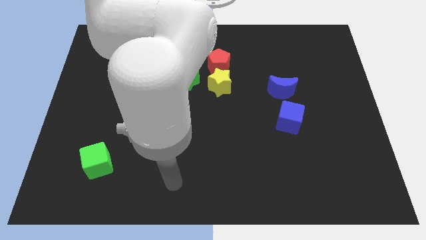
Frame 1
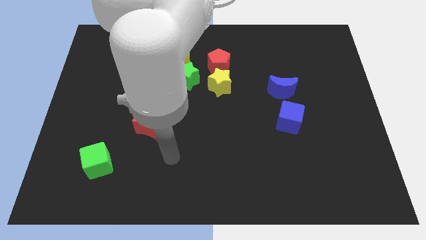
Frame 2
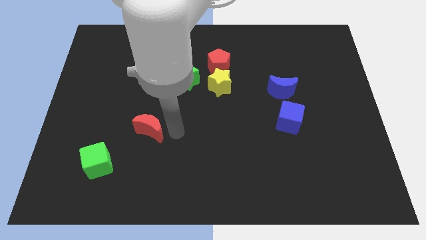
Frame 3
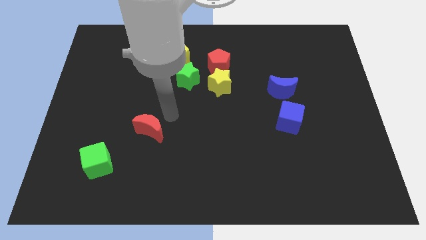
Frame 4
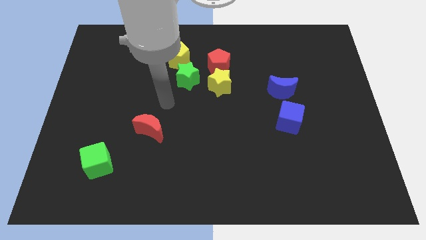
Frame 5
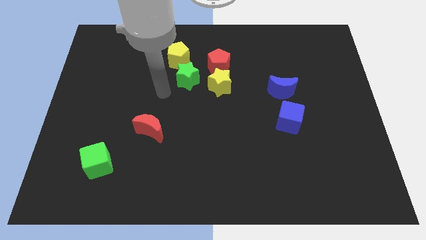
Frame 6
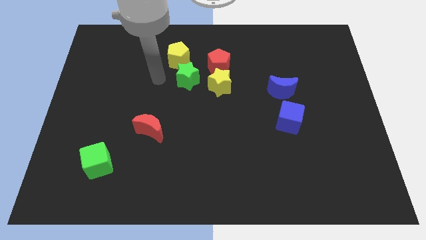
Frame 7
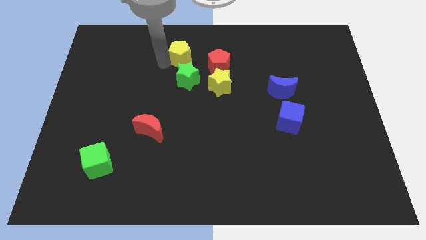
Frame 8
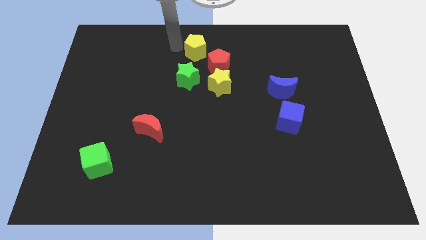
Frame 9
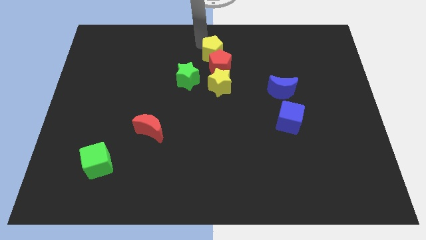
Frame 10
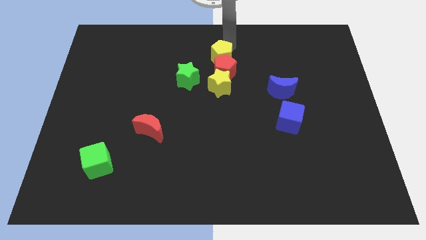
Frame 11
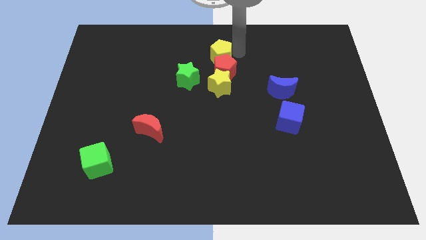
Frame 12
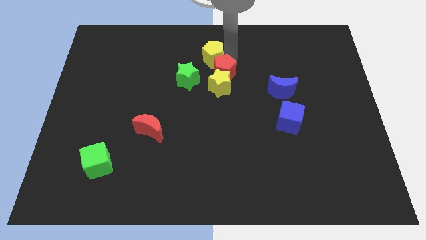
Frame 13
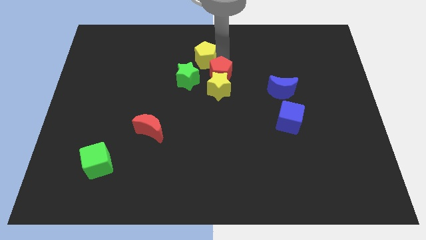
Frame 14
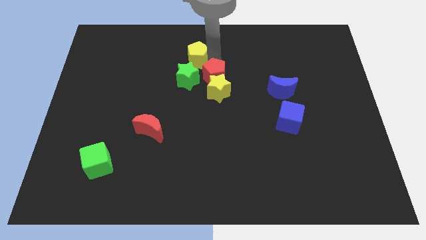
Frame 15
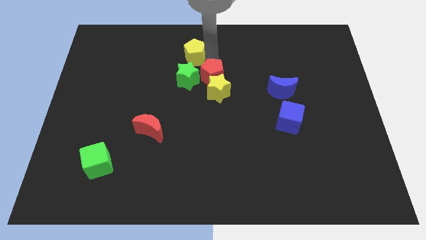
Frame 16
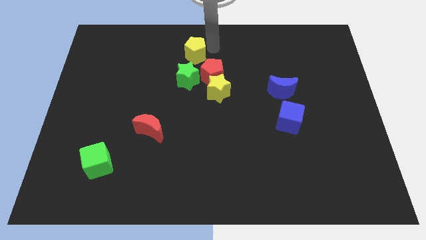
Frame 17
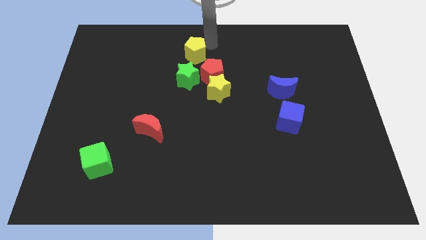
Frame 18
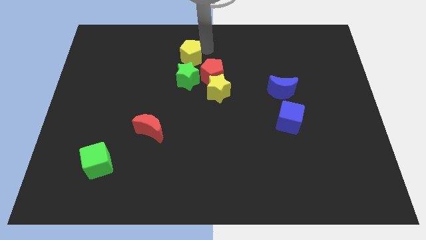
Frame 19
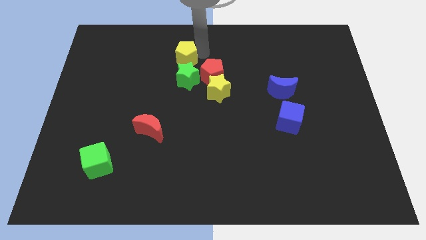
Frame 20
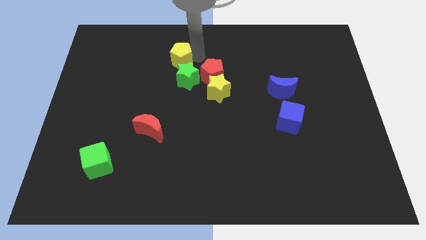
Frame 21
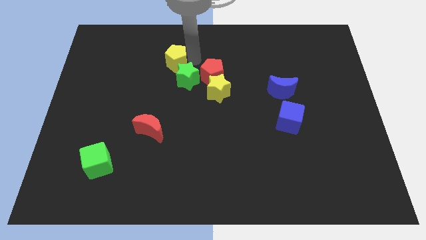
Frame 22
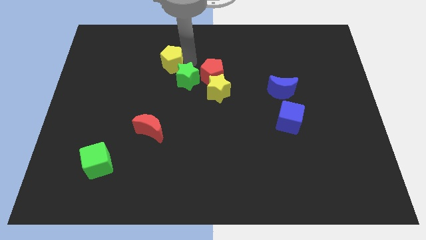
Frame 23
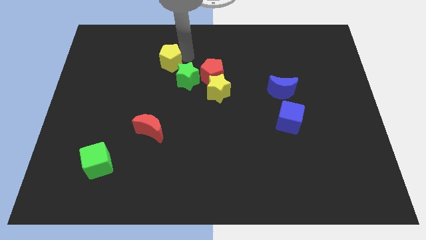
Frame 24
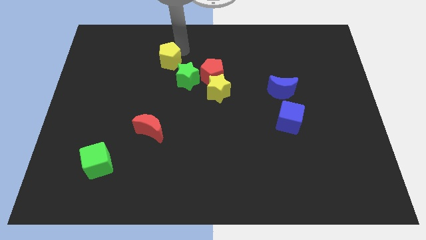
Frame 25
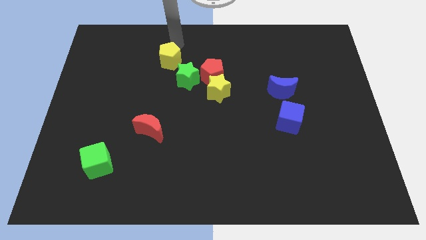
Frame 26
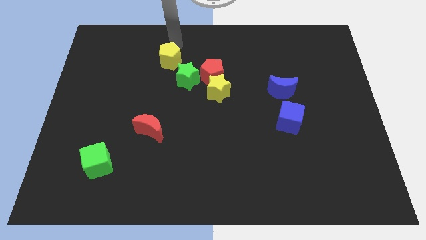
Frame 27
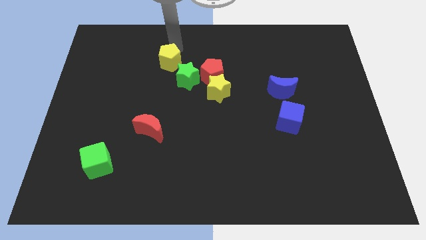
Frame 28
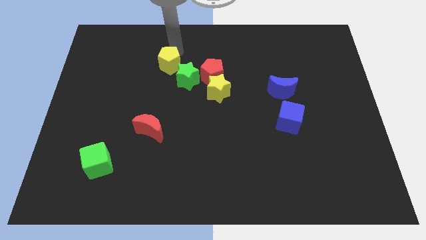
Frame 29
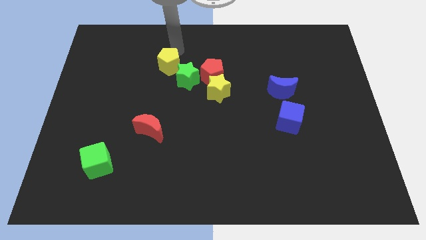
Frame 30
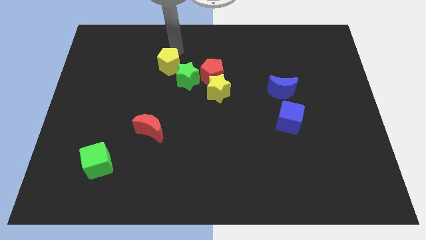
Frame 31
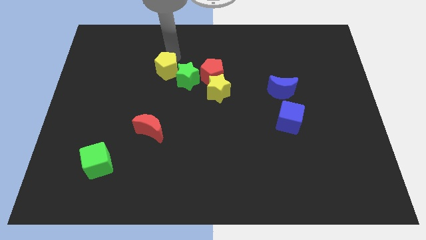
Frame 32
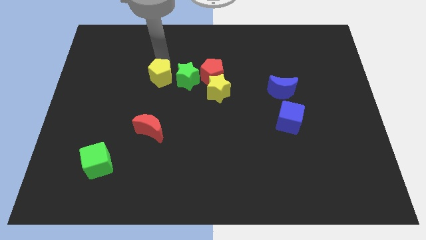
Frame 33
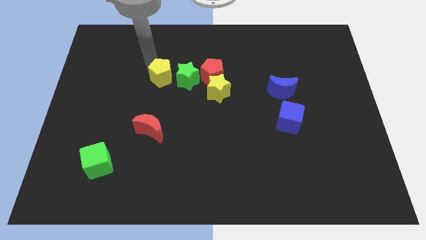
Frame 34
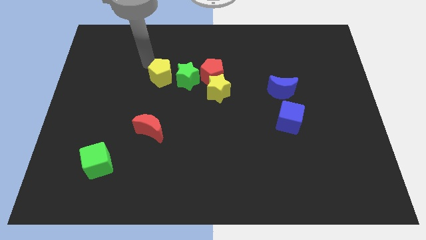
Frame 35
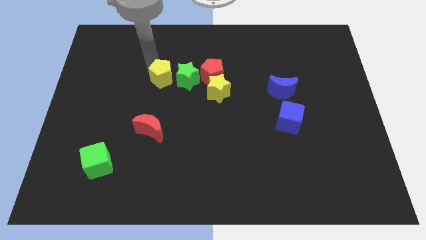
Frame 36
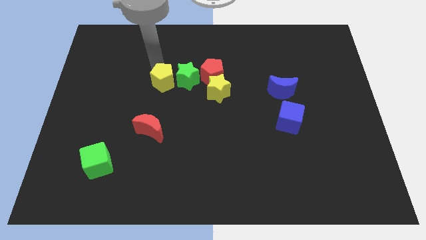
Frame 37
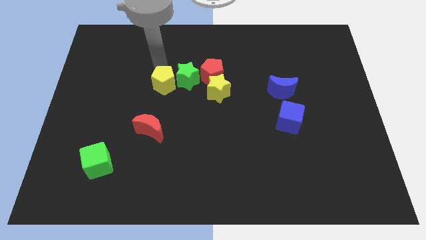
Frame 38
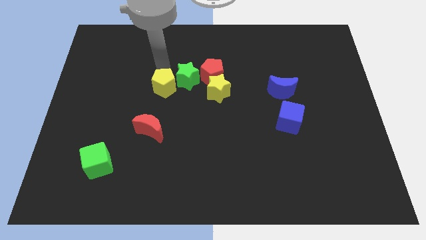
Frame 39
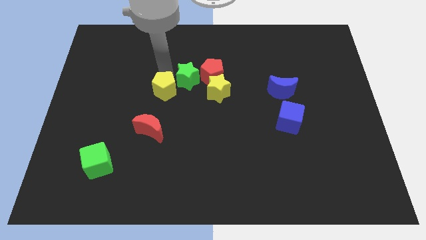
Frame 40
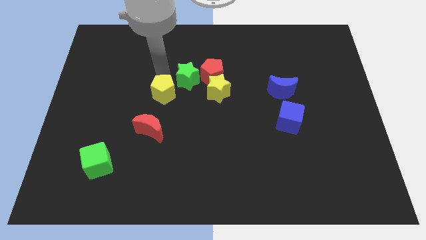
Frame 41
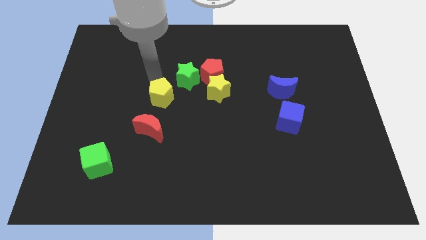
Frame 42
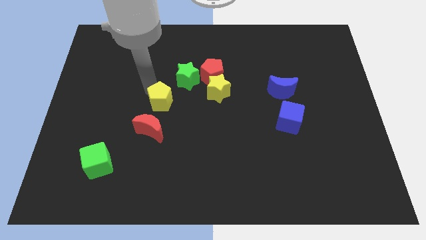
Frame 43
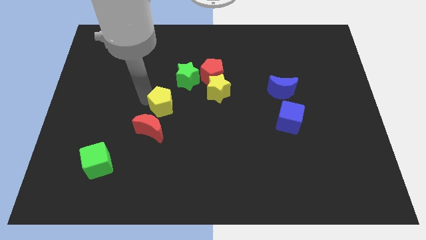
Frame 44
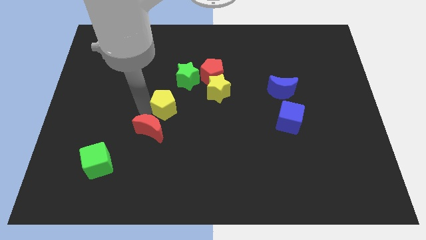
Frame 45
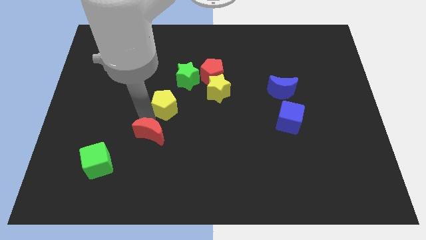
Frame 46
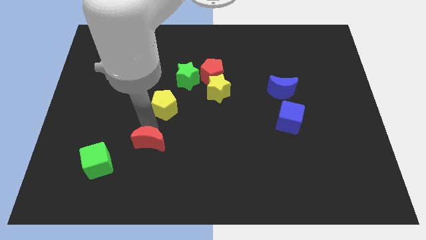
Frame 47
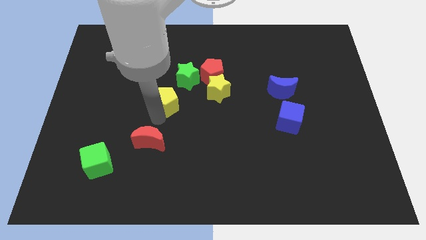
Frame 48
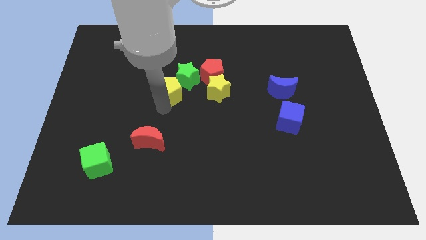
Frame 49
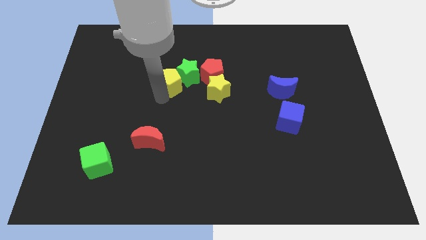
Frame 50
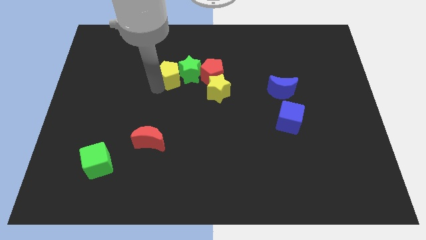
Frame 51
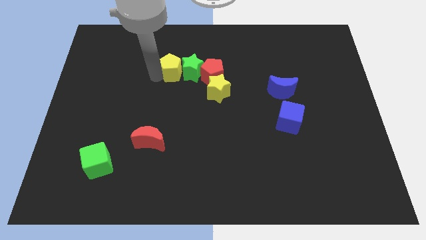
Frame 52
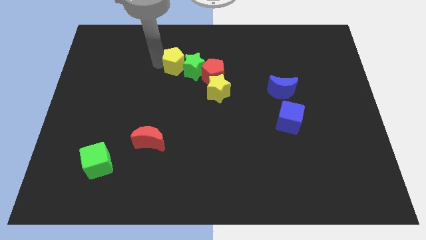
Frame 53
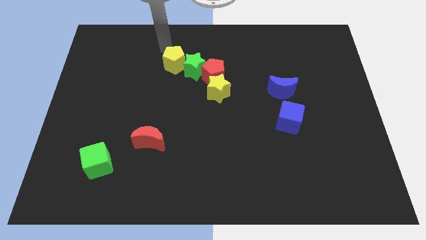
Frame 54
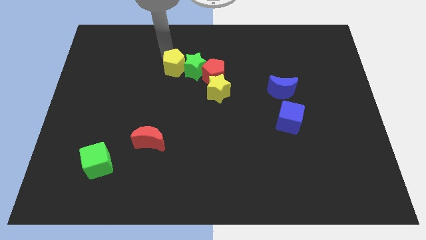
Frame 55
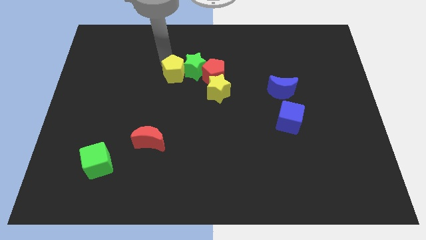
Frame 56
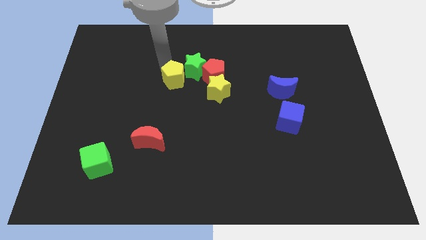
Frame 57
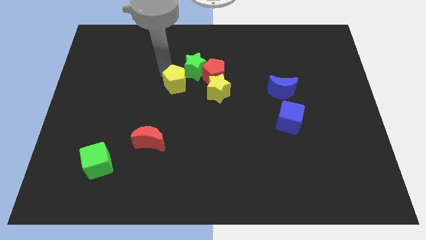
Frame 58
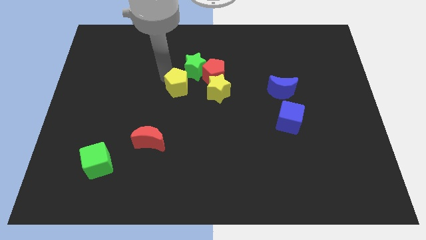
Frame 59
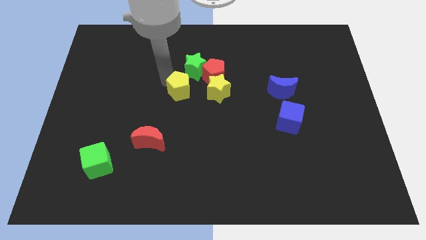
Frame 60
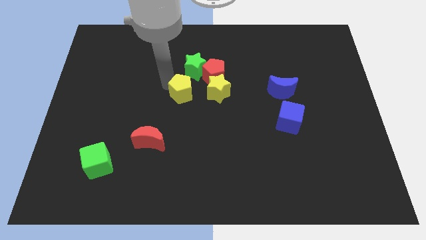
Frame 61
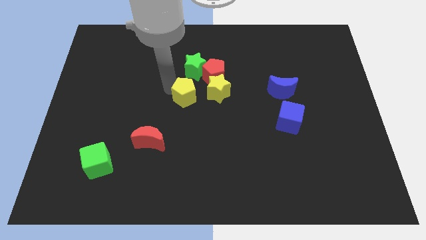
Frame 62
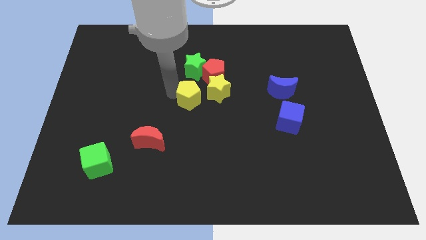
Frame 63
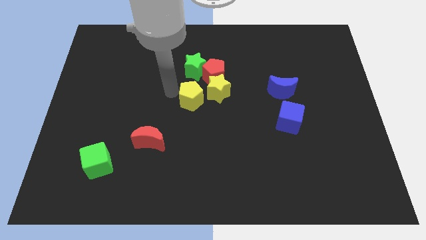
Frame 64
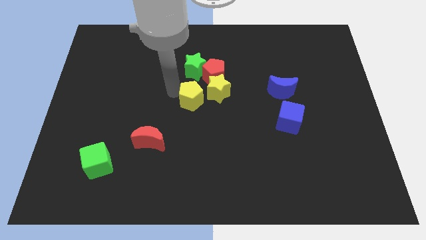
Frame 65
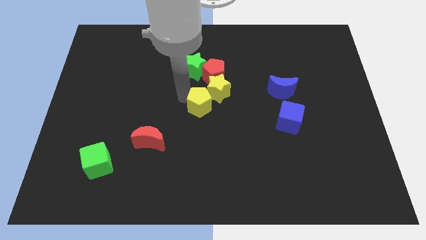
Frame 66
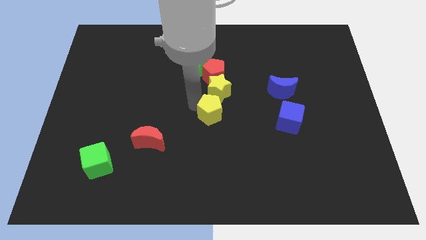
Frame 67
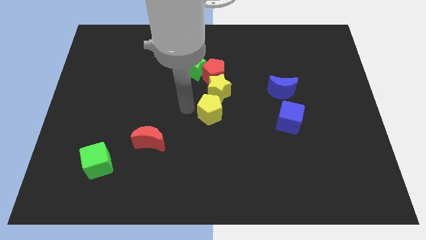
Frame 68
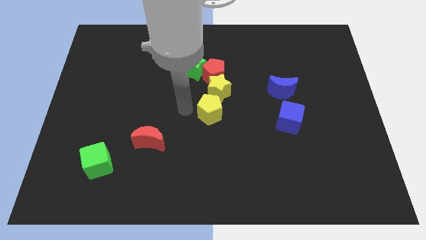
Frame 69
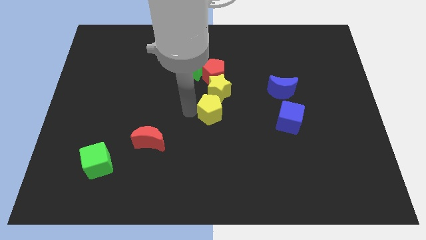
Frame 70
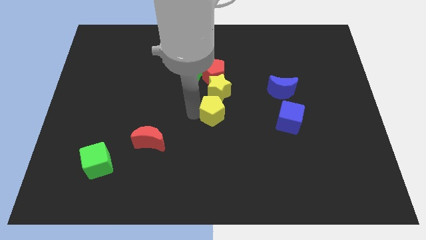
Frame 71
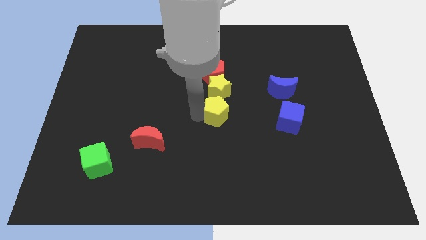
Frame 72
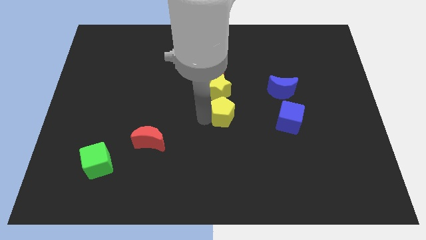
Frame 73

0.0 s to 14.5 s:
slide the yellow pentagon diagonally downwards and right

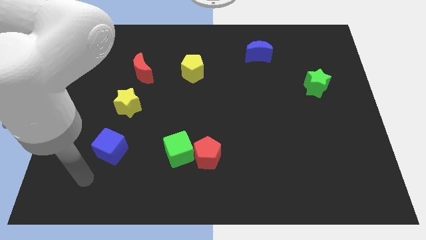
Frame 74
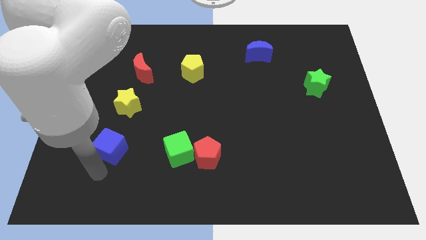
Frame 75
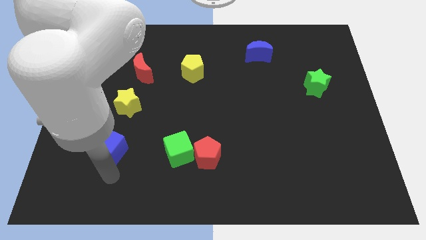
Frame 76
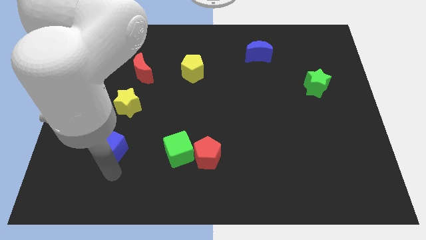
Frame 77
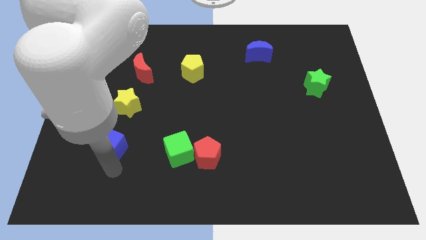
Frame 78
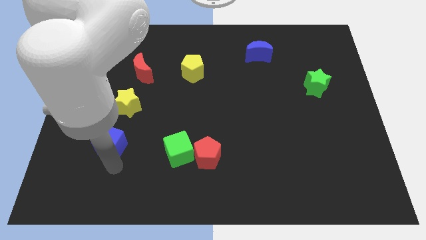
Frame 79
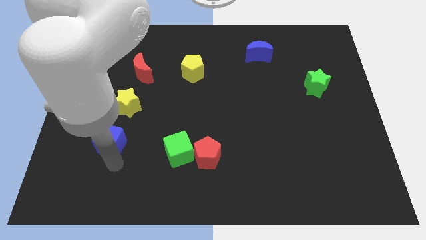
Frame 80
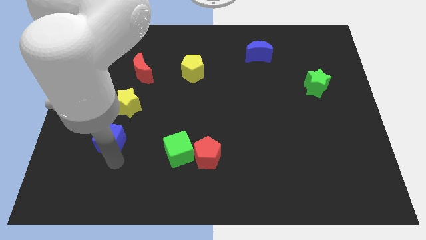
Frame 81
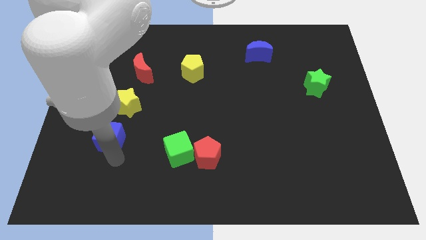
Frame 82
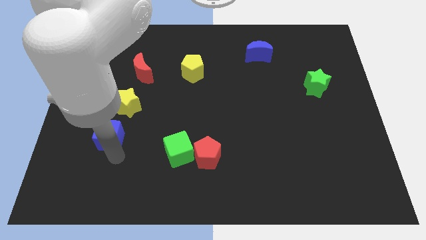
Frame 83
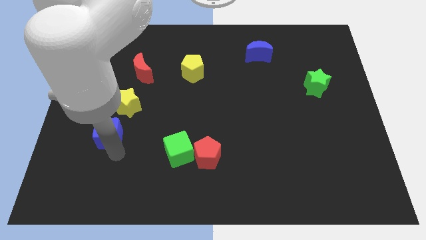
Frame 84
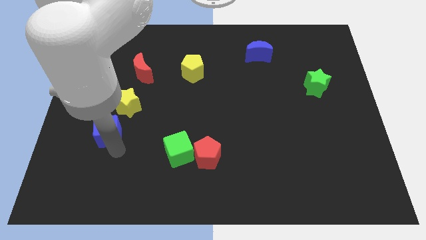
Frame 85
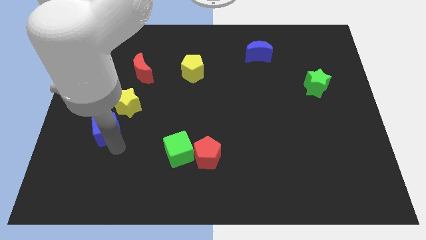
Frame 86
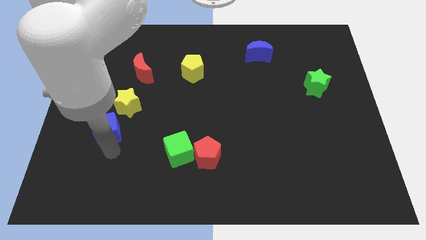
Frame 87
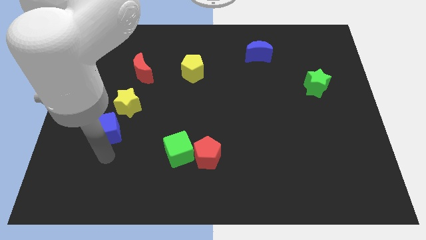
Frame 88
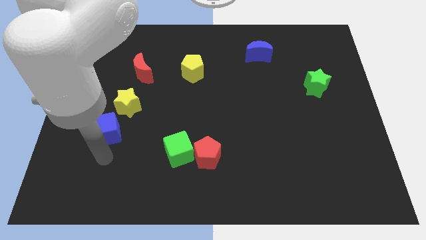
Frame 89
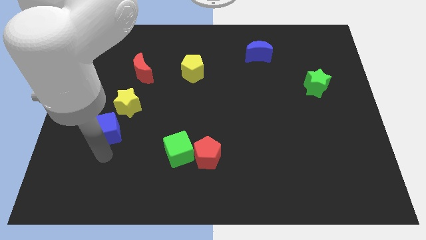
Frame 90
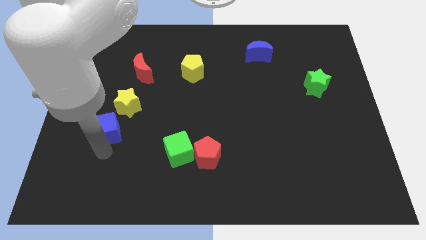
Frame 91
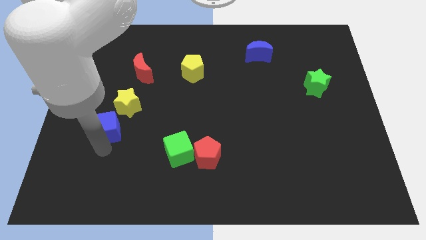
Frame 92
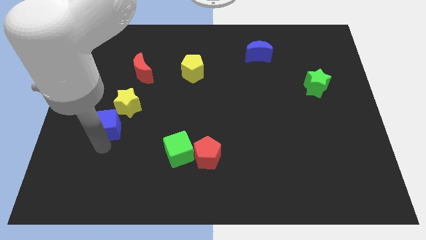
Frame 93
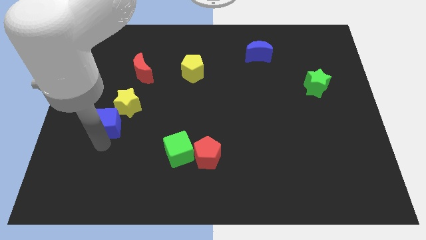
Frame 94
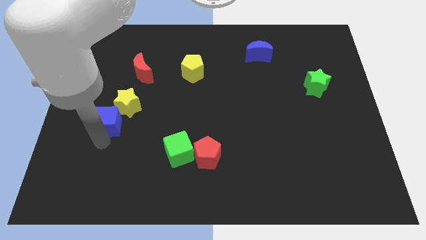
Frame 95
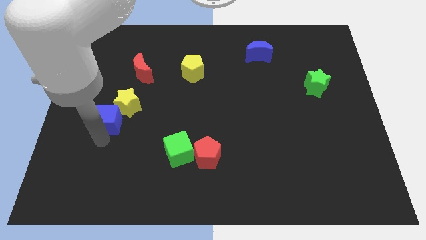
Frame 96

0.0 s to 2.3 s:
push the blue cube up a little bit
